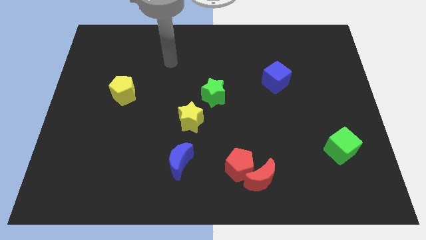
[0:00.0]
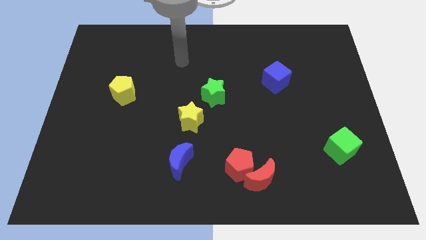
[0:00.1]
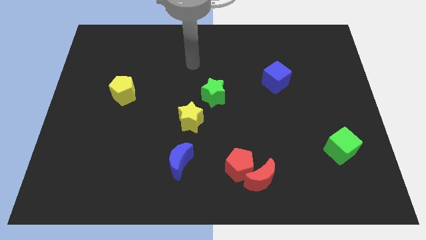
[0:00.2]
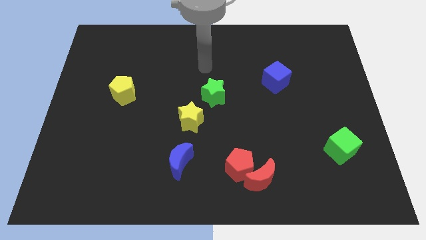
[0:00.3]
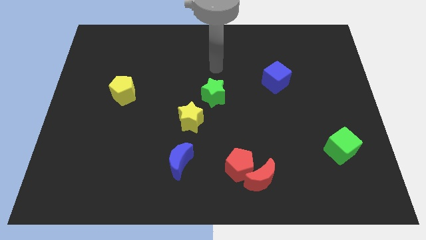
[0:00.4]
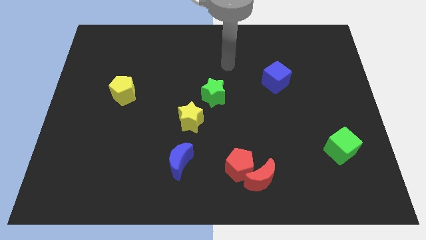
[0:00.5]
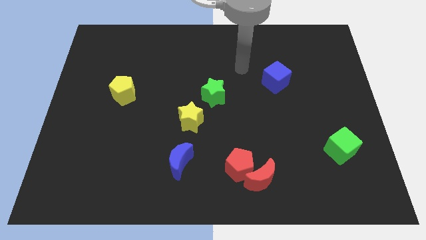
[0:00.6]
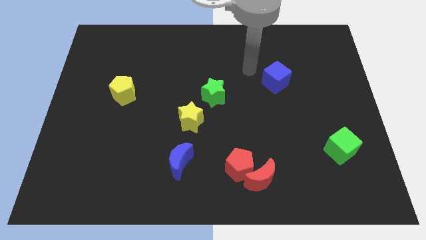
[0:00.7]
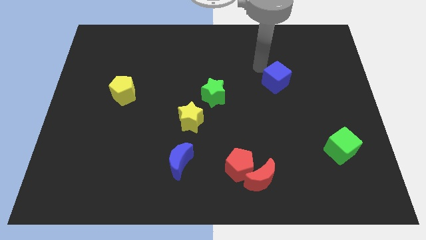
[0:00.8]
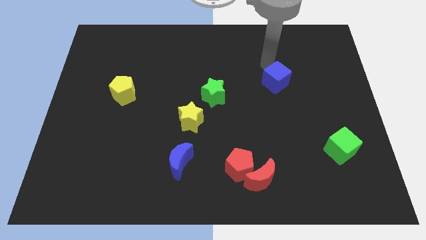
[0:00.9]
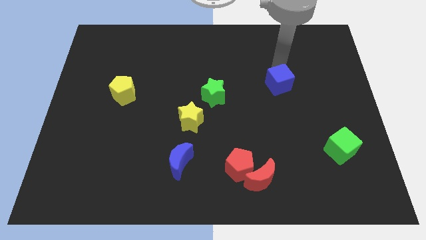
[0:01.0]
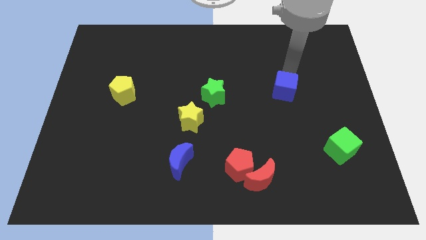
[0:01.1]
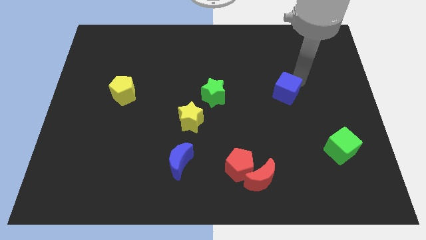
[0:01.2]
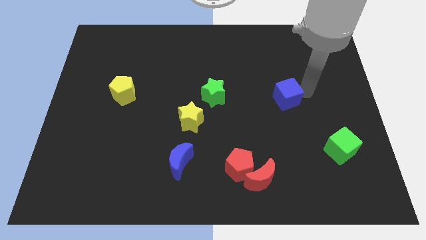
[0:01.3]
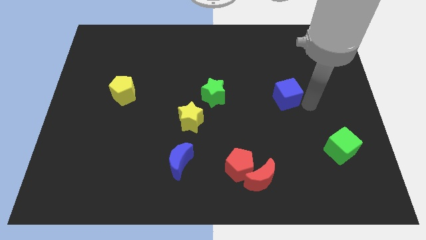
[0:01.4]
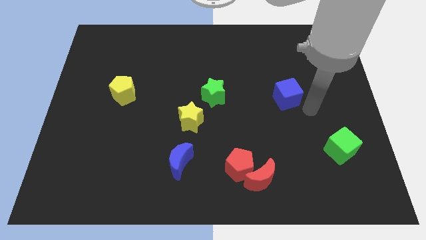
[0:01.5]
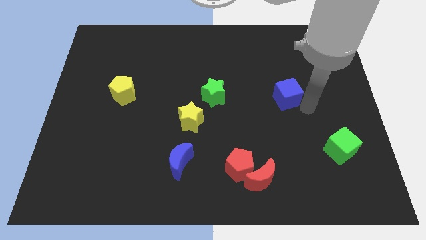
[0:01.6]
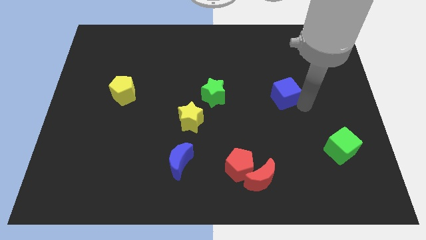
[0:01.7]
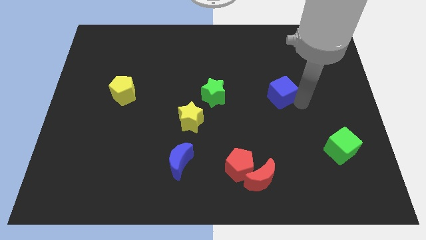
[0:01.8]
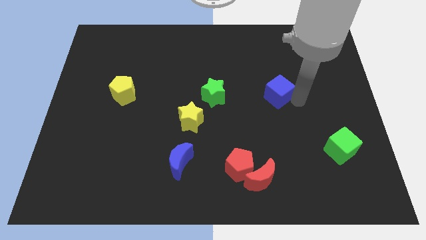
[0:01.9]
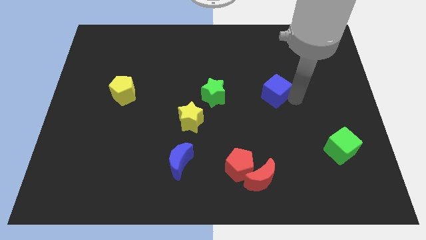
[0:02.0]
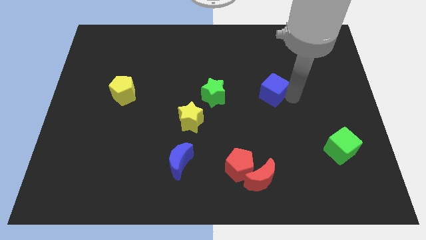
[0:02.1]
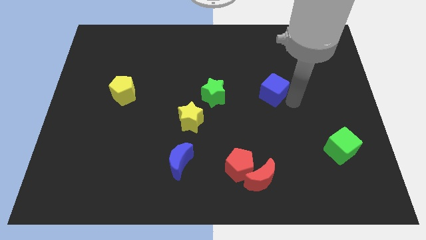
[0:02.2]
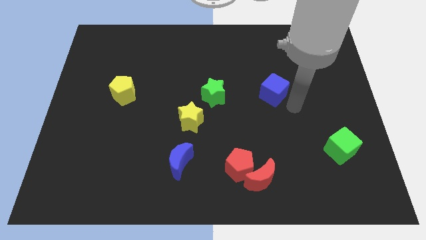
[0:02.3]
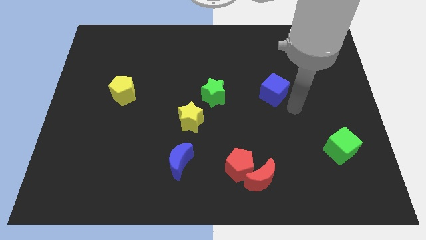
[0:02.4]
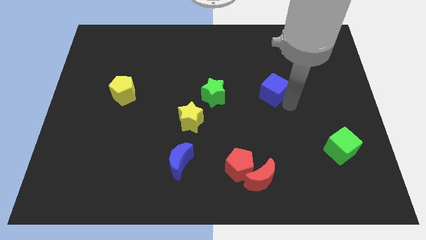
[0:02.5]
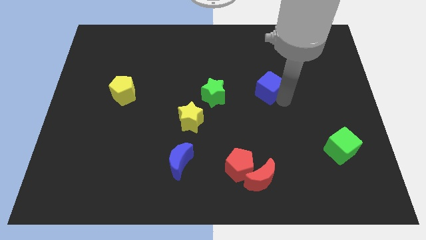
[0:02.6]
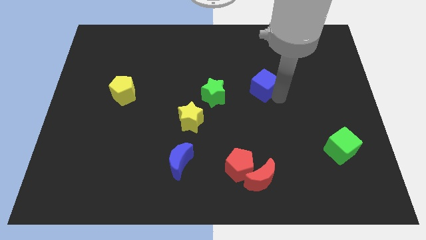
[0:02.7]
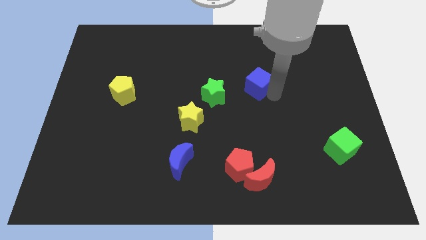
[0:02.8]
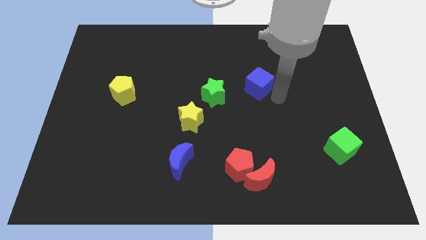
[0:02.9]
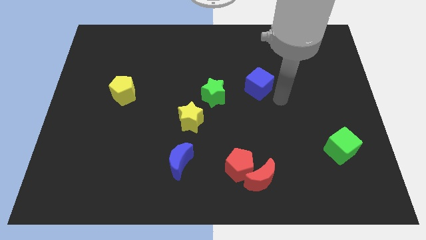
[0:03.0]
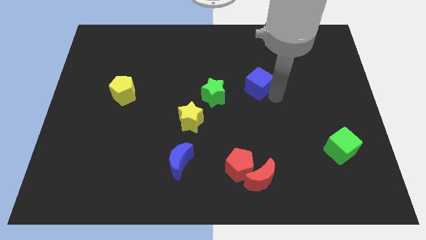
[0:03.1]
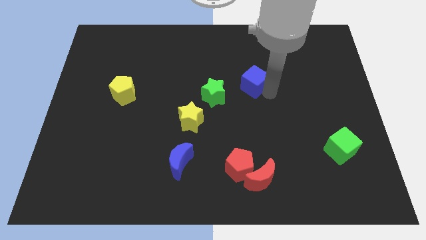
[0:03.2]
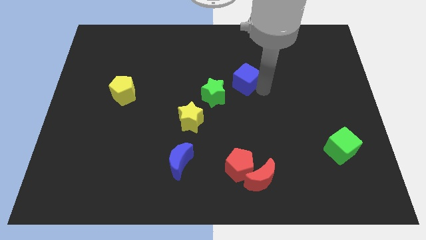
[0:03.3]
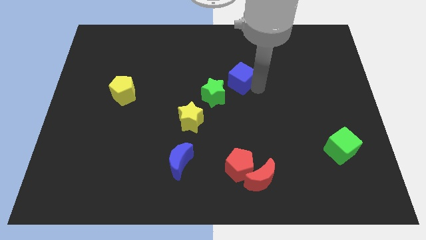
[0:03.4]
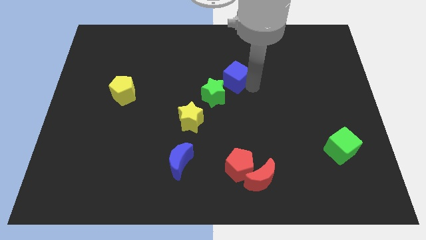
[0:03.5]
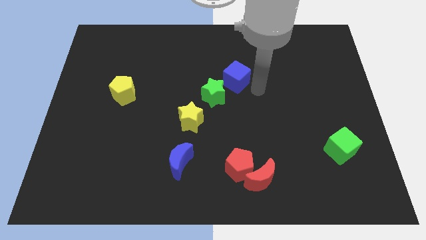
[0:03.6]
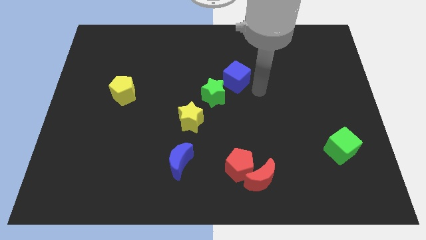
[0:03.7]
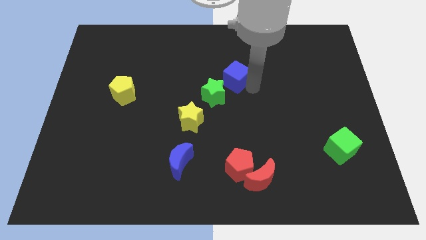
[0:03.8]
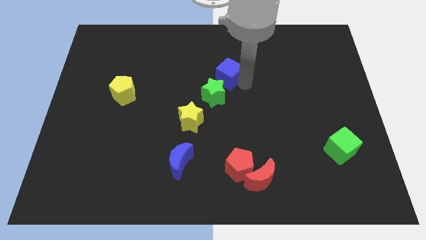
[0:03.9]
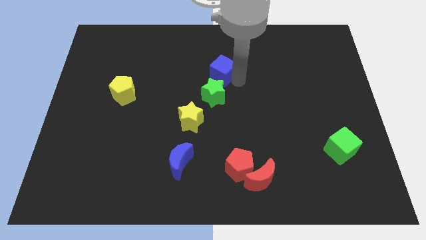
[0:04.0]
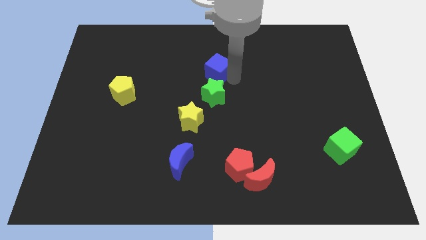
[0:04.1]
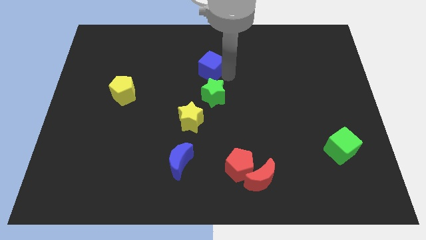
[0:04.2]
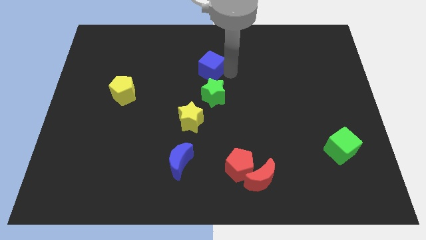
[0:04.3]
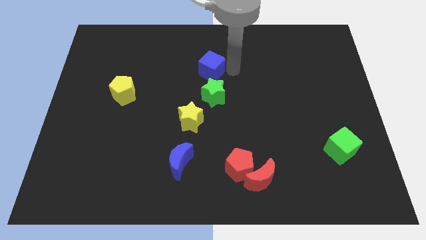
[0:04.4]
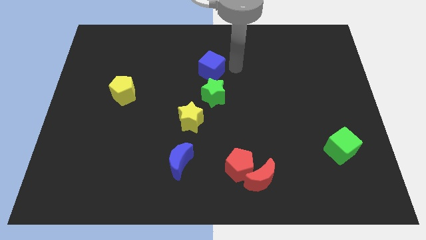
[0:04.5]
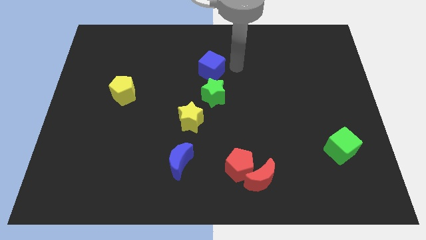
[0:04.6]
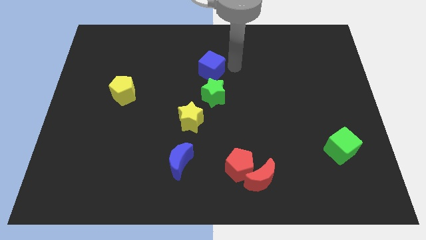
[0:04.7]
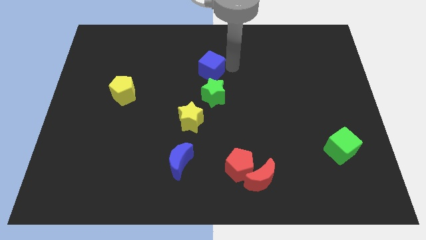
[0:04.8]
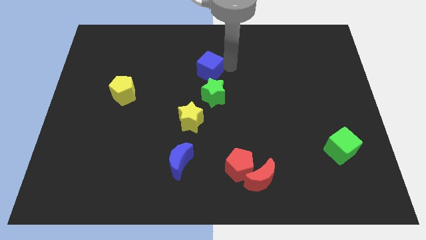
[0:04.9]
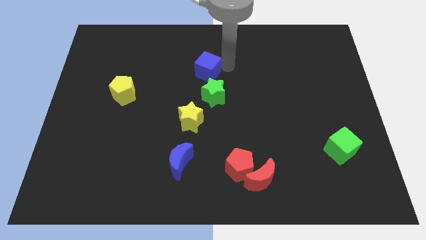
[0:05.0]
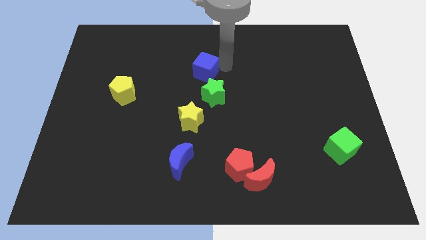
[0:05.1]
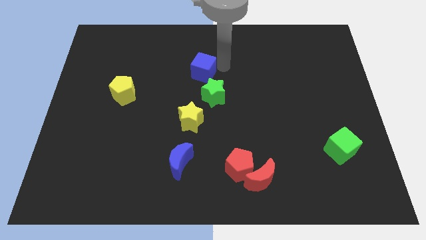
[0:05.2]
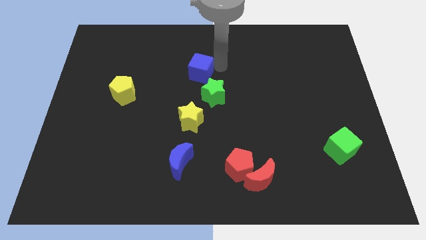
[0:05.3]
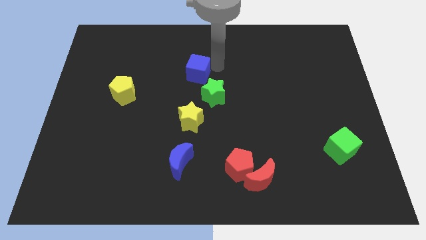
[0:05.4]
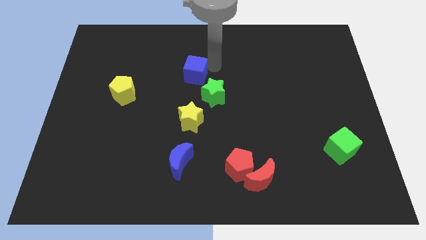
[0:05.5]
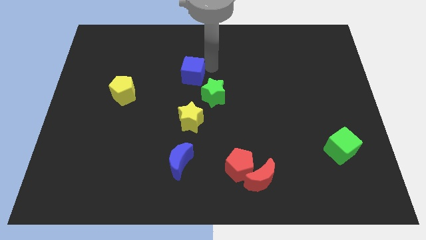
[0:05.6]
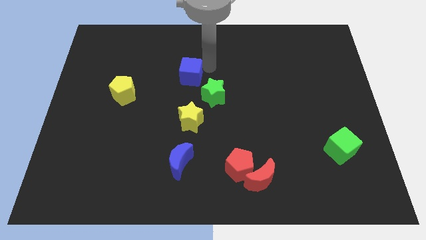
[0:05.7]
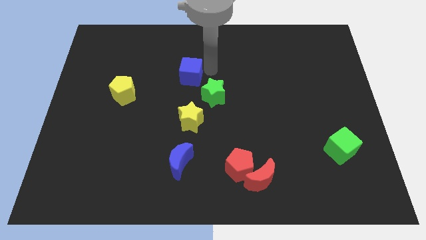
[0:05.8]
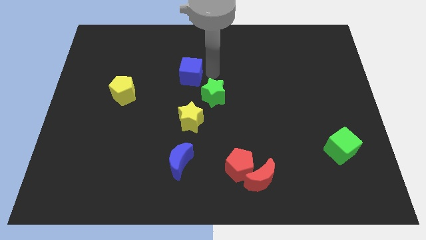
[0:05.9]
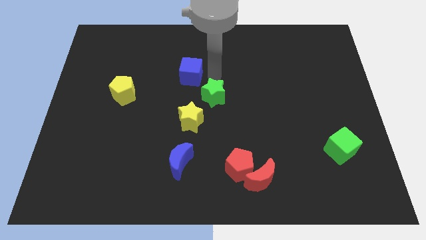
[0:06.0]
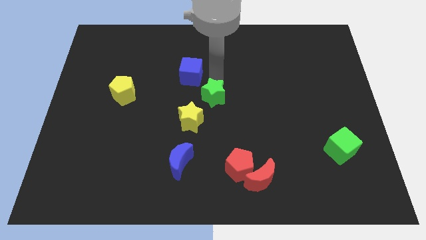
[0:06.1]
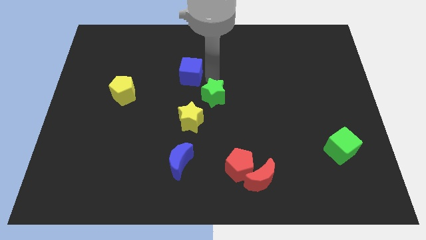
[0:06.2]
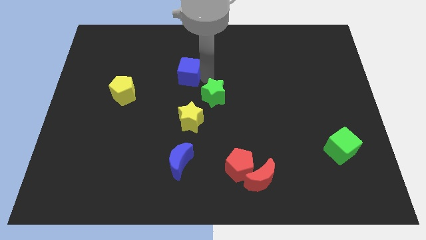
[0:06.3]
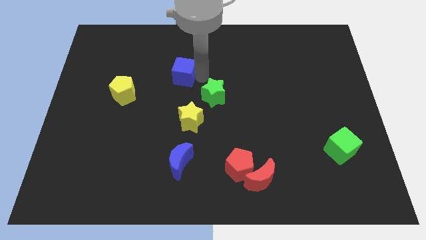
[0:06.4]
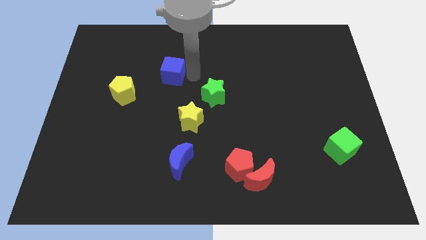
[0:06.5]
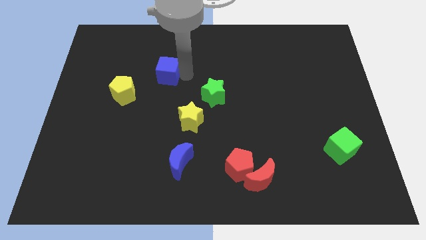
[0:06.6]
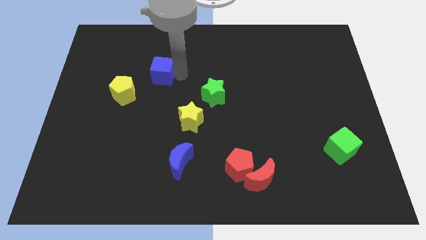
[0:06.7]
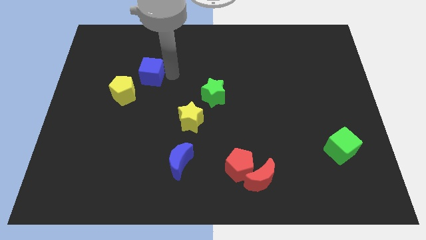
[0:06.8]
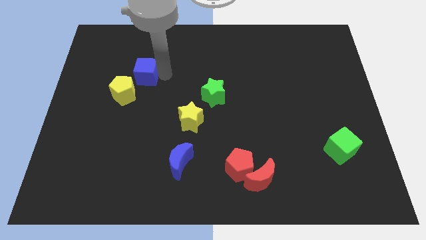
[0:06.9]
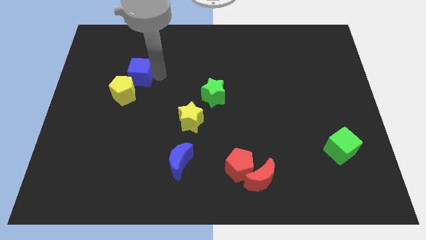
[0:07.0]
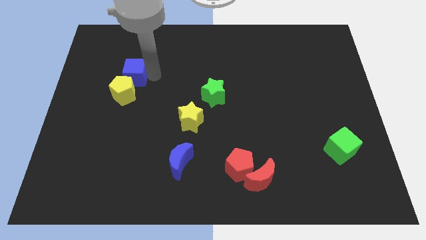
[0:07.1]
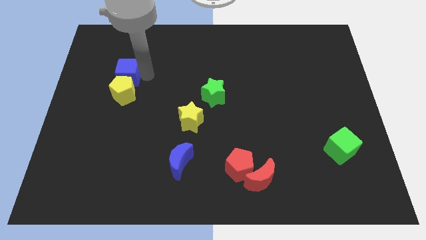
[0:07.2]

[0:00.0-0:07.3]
push the blue cube to the top left side of the yellow pentagon
